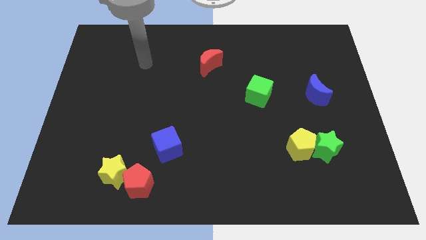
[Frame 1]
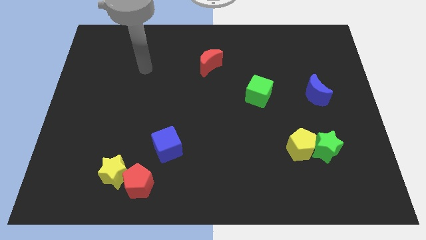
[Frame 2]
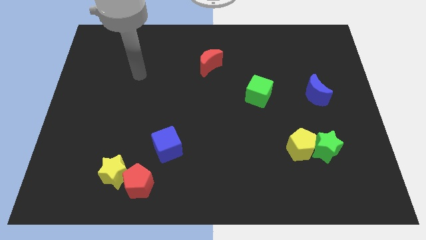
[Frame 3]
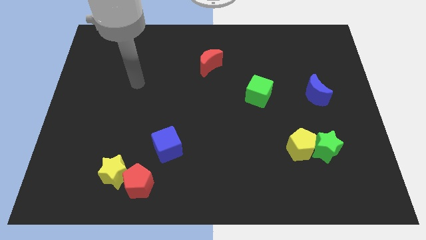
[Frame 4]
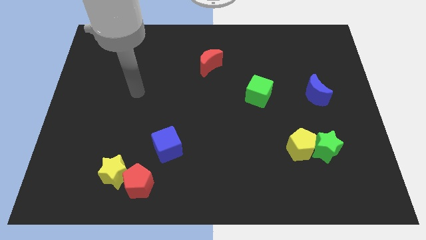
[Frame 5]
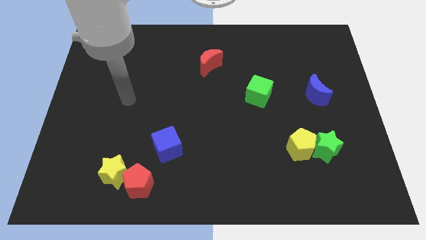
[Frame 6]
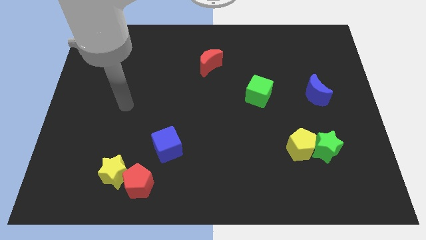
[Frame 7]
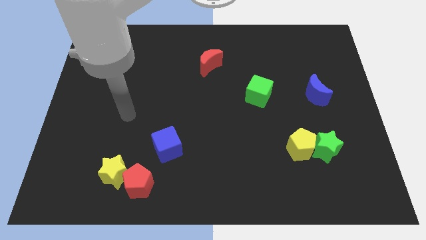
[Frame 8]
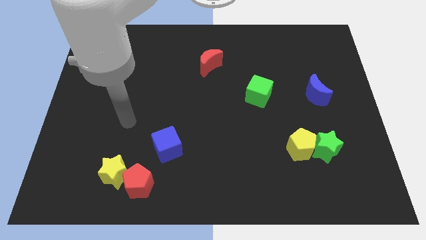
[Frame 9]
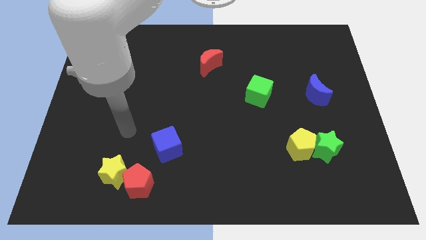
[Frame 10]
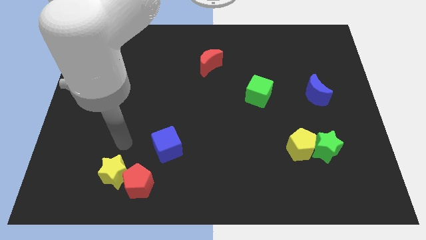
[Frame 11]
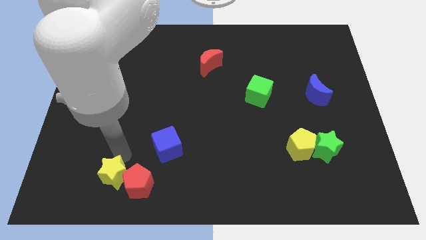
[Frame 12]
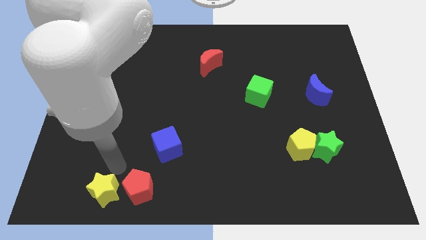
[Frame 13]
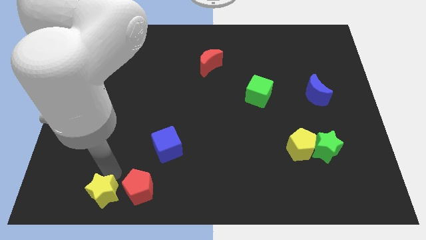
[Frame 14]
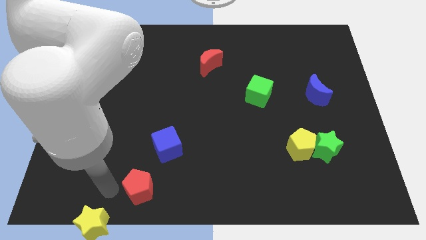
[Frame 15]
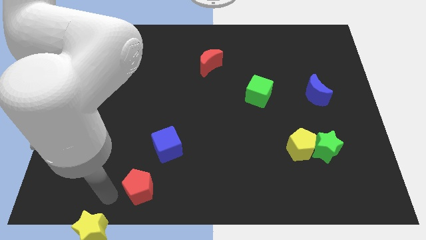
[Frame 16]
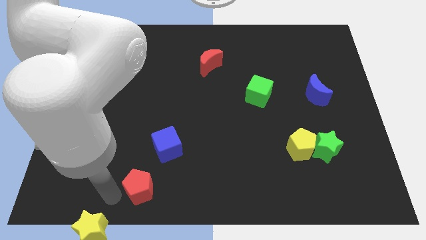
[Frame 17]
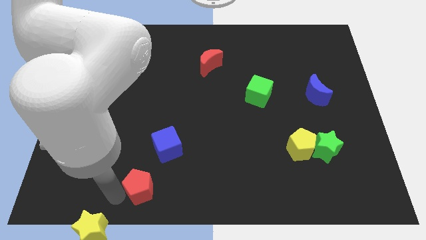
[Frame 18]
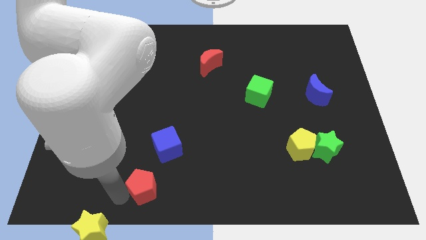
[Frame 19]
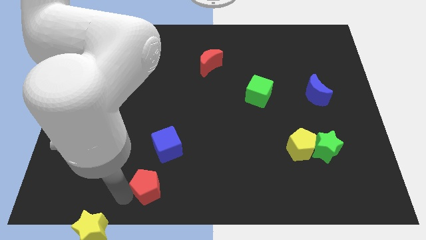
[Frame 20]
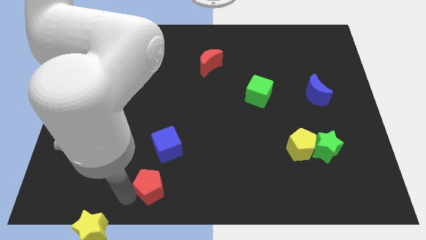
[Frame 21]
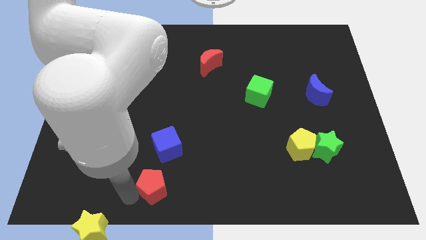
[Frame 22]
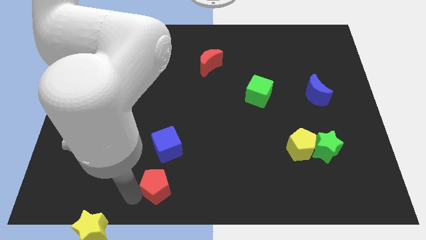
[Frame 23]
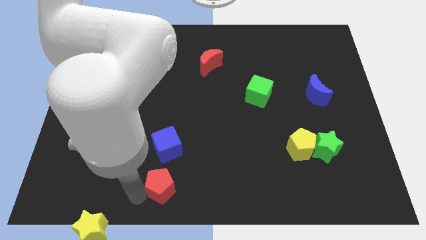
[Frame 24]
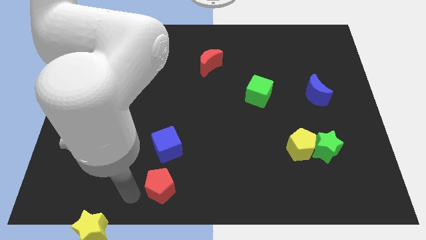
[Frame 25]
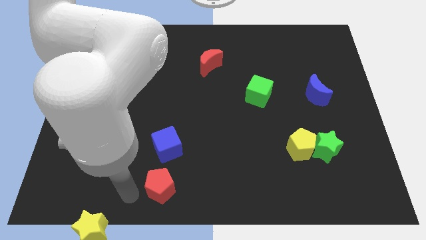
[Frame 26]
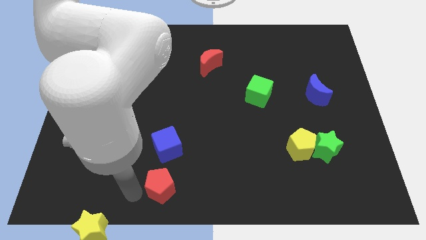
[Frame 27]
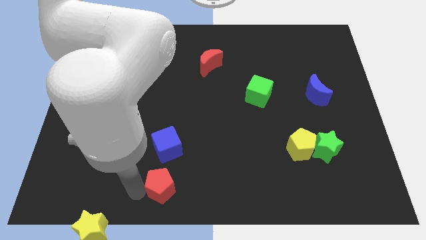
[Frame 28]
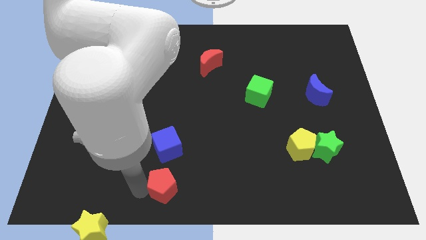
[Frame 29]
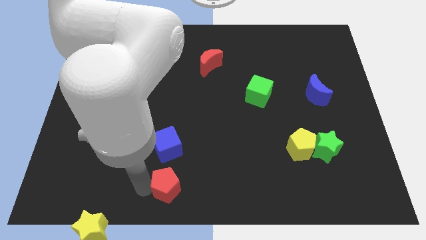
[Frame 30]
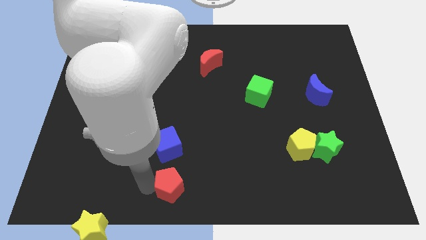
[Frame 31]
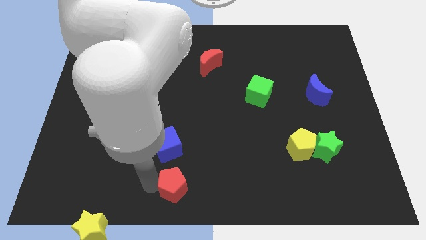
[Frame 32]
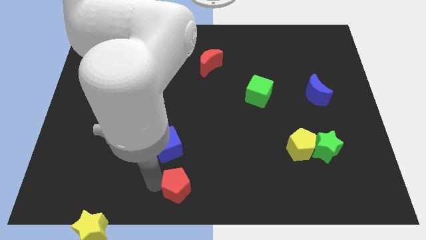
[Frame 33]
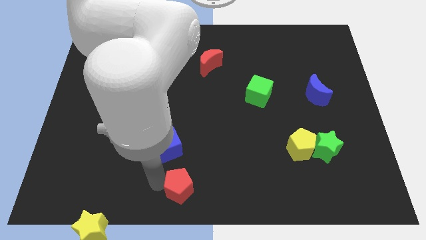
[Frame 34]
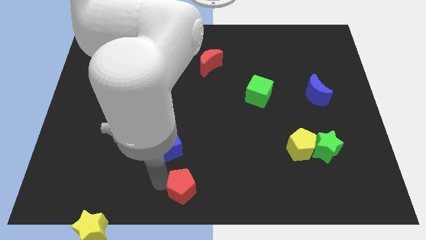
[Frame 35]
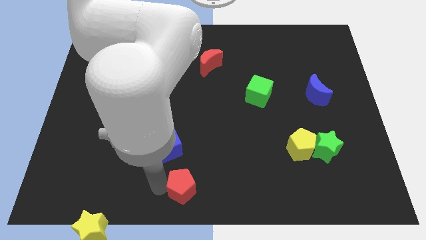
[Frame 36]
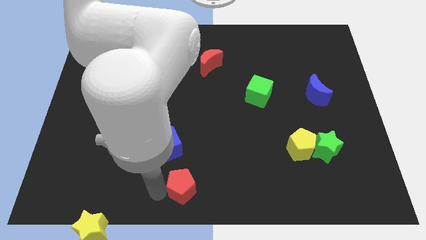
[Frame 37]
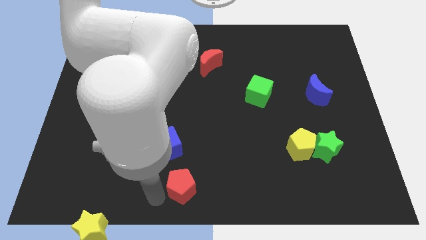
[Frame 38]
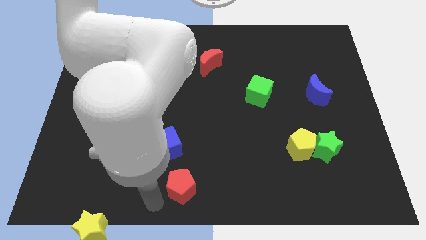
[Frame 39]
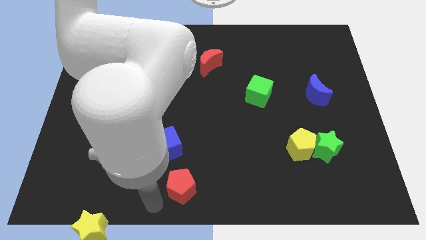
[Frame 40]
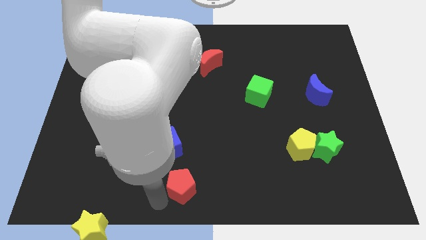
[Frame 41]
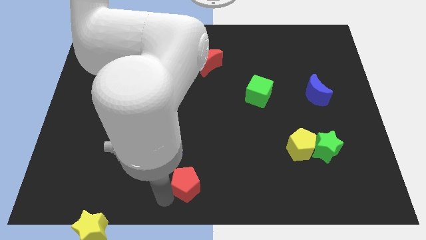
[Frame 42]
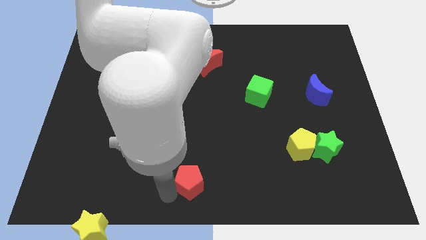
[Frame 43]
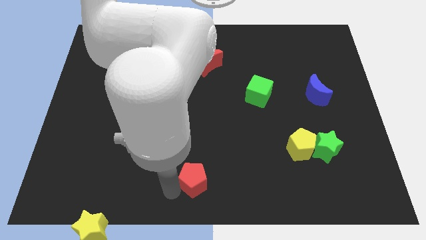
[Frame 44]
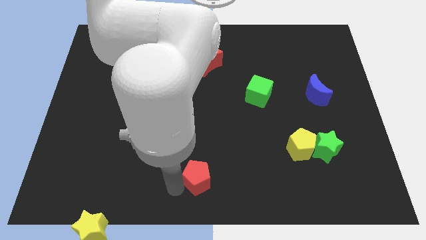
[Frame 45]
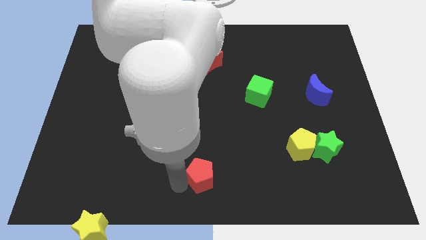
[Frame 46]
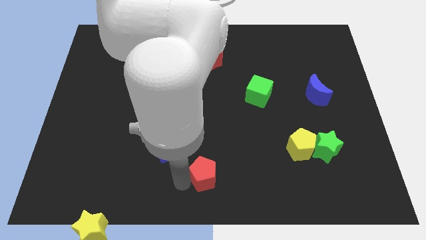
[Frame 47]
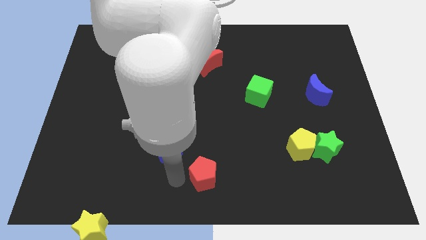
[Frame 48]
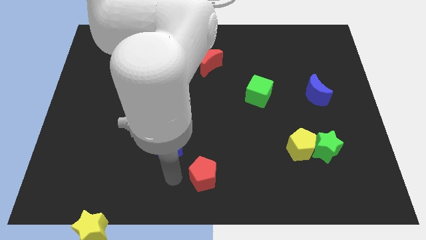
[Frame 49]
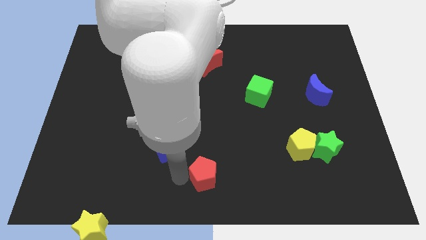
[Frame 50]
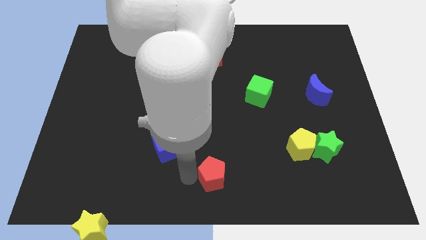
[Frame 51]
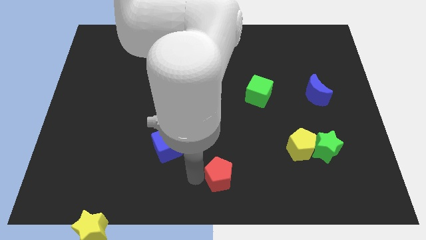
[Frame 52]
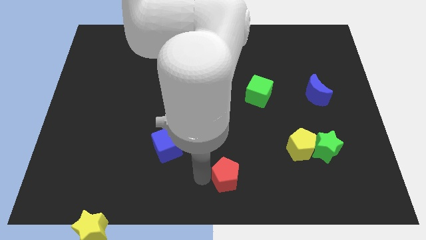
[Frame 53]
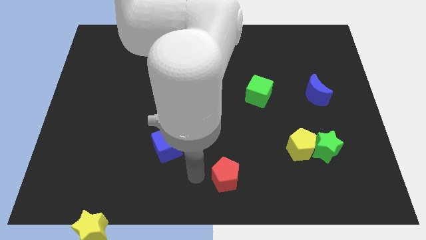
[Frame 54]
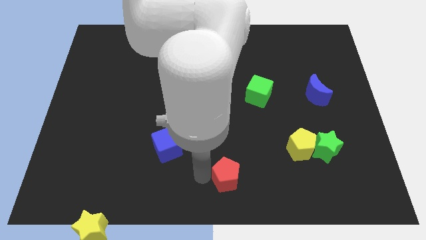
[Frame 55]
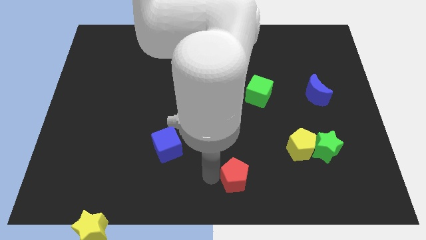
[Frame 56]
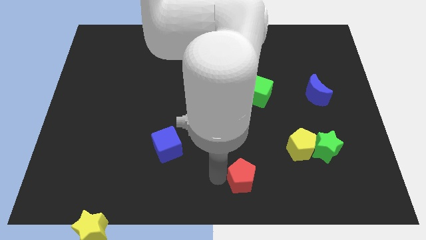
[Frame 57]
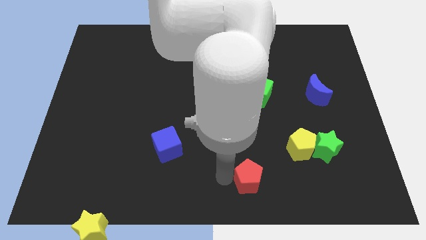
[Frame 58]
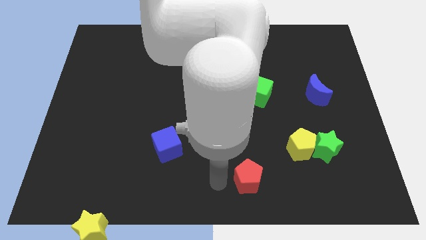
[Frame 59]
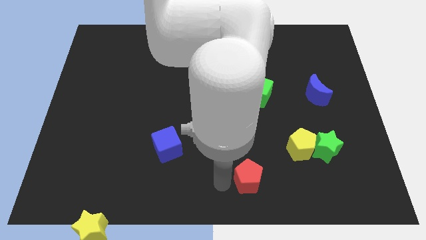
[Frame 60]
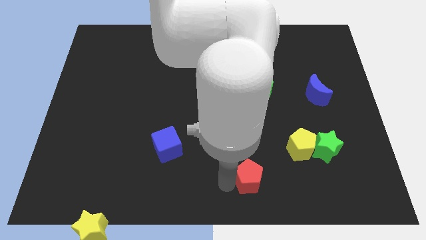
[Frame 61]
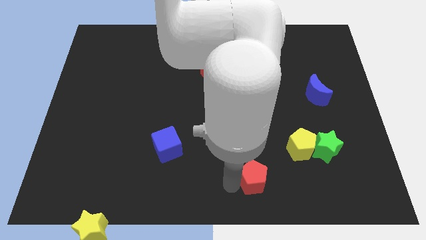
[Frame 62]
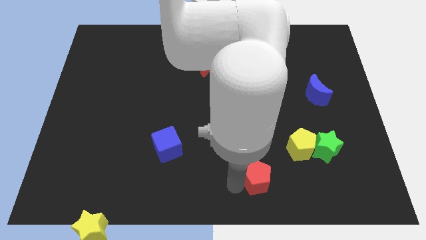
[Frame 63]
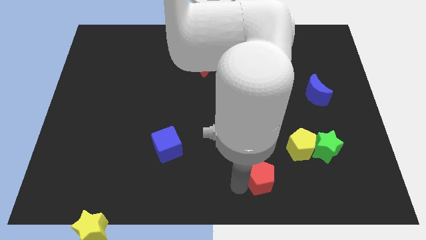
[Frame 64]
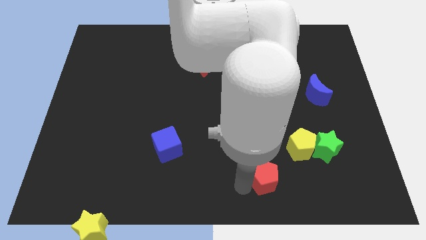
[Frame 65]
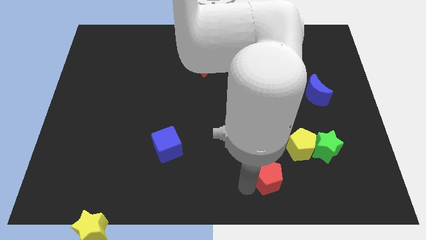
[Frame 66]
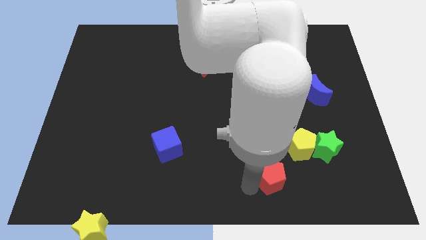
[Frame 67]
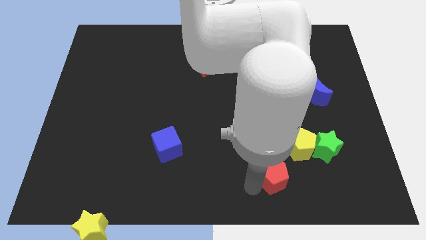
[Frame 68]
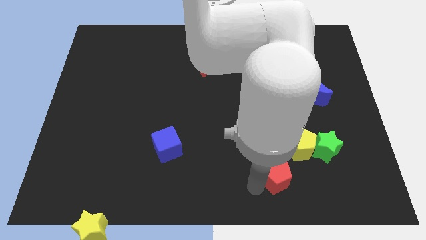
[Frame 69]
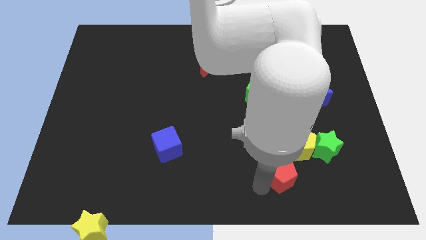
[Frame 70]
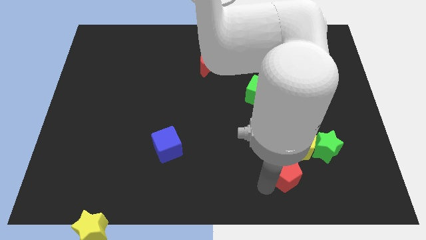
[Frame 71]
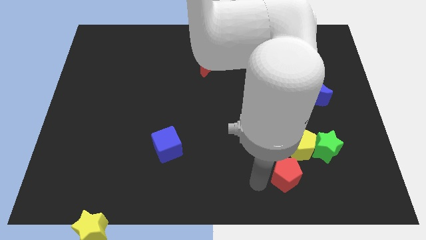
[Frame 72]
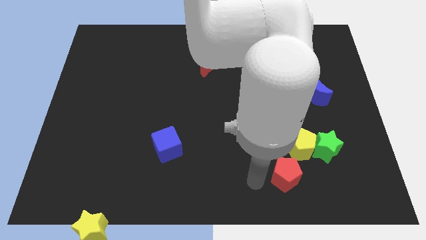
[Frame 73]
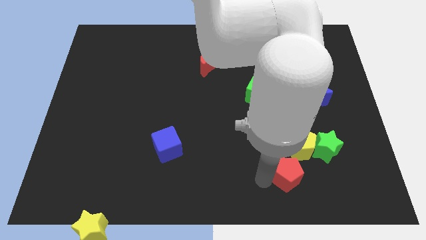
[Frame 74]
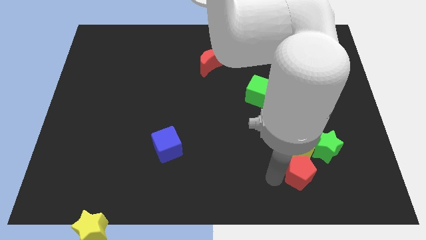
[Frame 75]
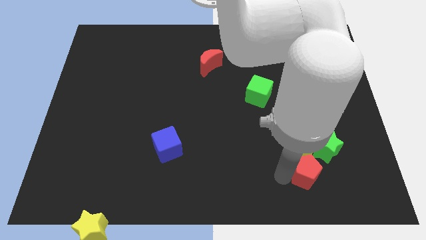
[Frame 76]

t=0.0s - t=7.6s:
move the red pentagon diagonally down and to the right of the yellow pentagon
